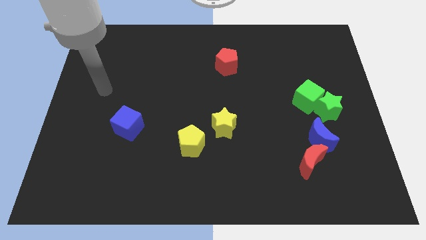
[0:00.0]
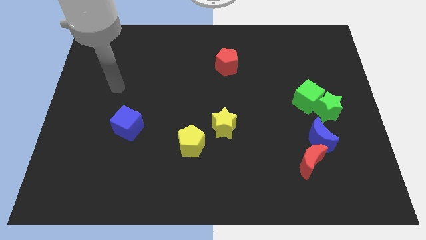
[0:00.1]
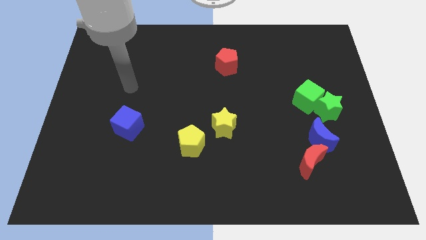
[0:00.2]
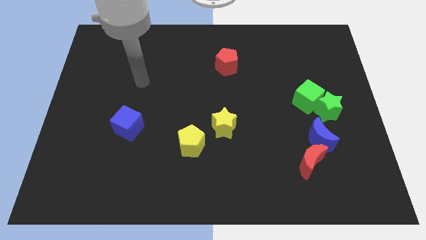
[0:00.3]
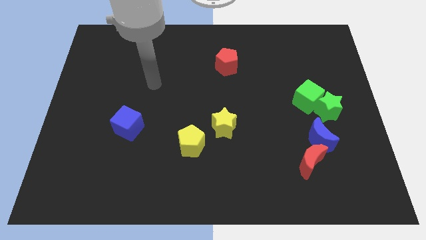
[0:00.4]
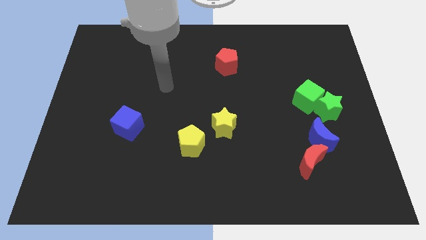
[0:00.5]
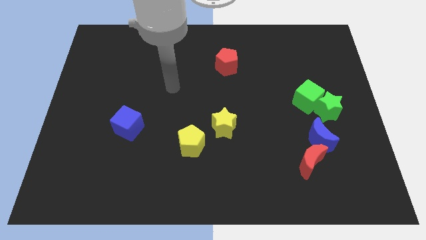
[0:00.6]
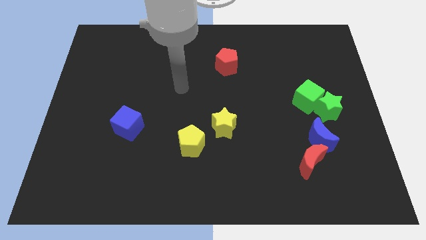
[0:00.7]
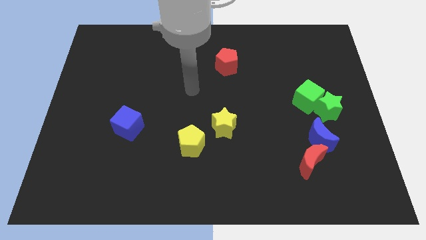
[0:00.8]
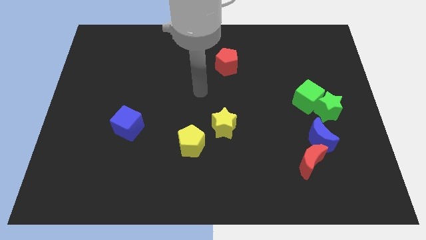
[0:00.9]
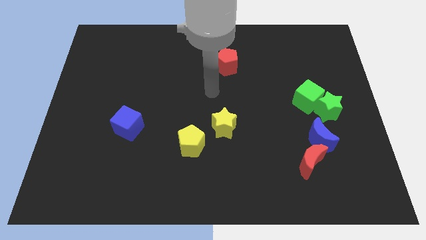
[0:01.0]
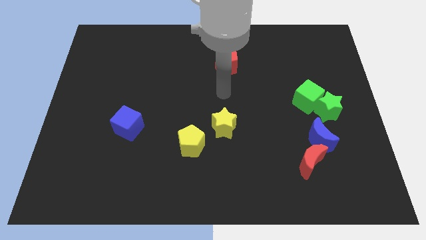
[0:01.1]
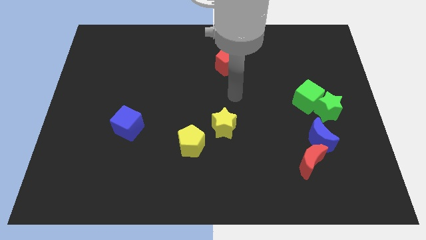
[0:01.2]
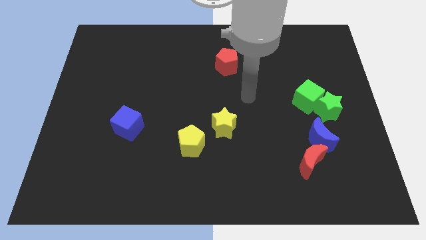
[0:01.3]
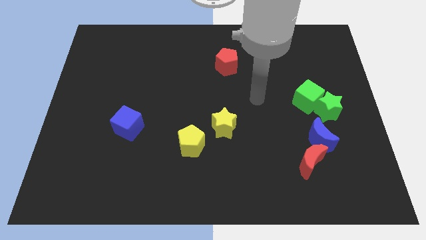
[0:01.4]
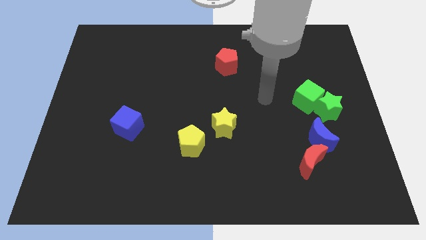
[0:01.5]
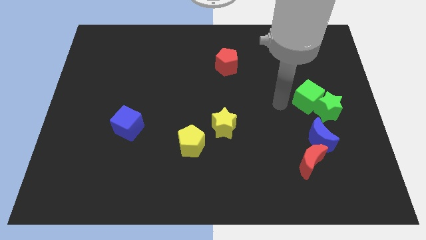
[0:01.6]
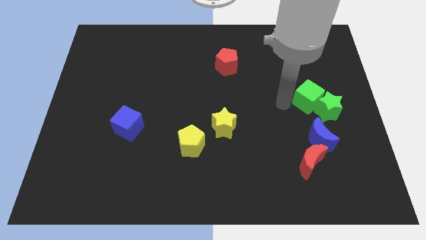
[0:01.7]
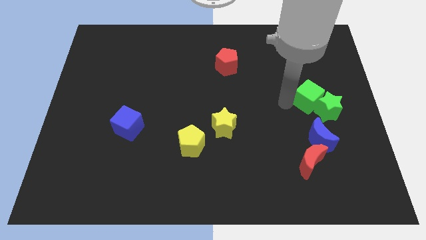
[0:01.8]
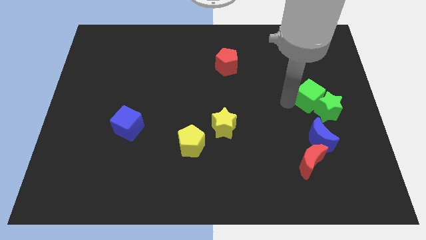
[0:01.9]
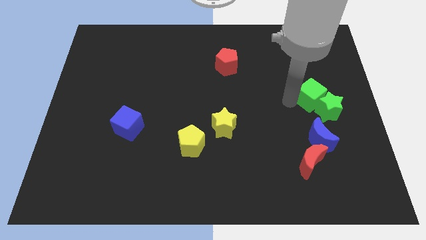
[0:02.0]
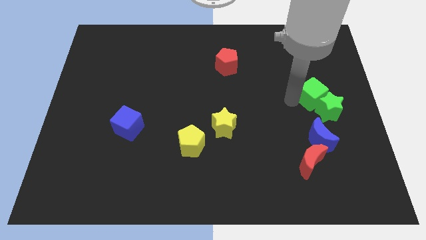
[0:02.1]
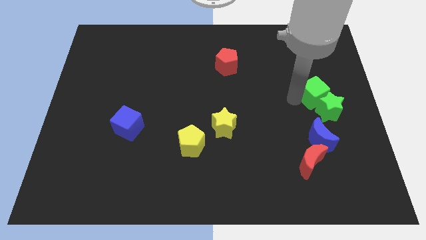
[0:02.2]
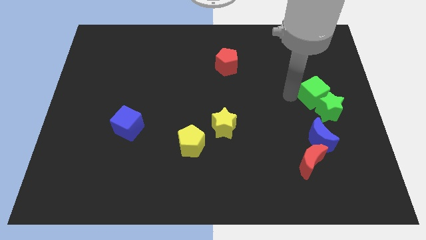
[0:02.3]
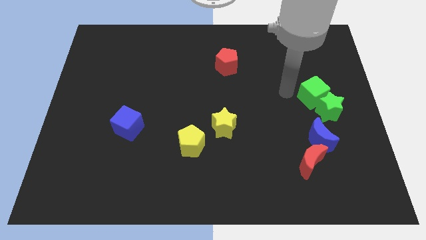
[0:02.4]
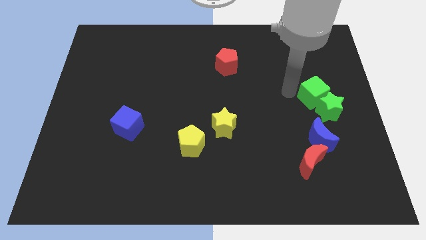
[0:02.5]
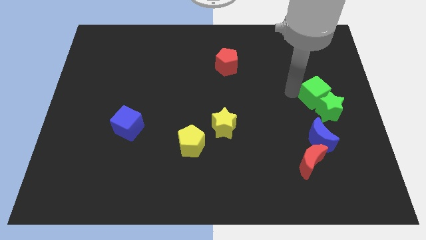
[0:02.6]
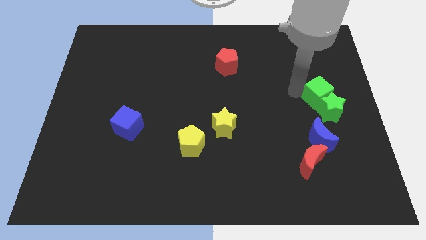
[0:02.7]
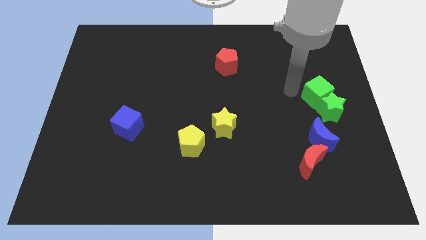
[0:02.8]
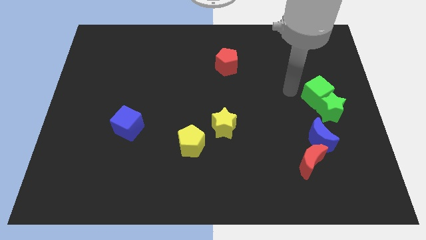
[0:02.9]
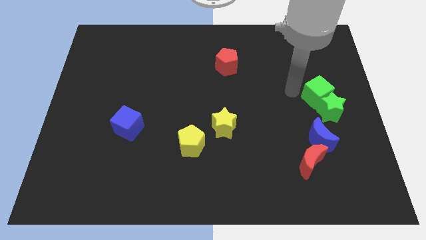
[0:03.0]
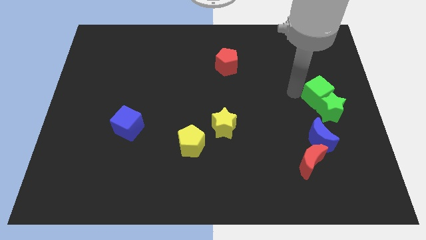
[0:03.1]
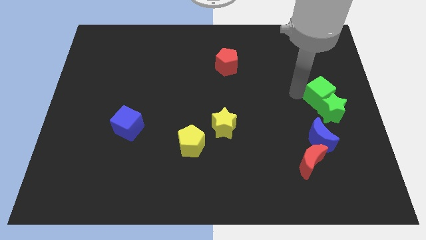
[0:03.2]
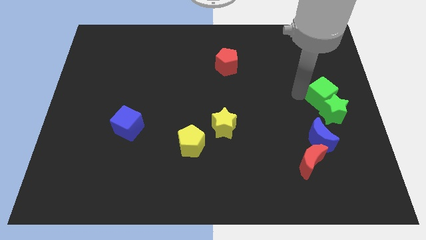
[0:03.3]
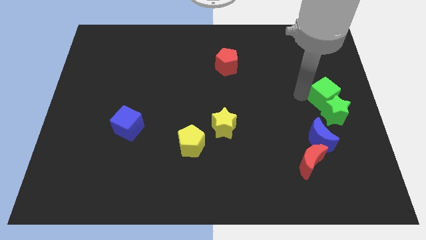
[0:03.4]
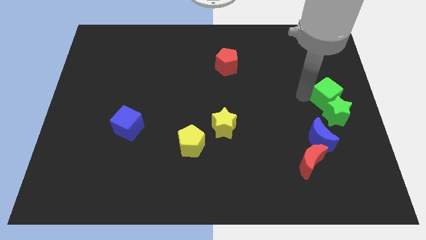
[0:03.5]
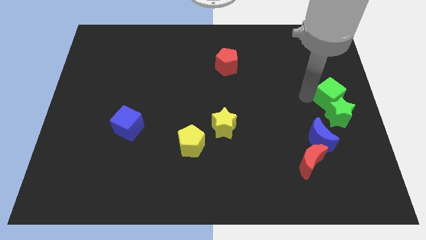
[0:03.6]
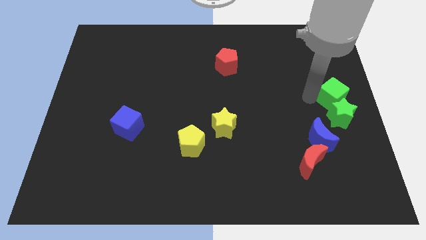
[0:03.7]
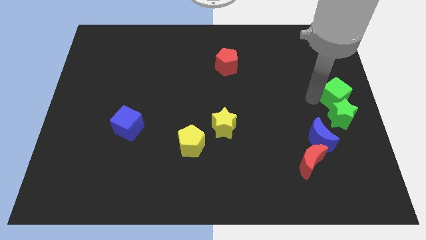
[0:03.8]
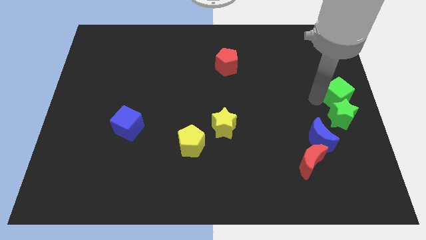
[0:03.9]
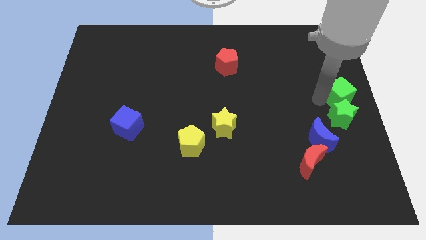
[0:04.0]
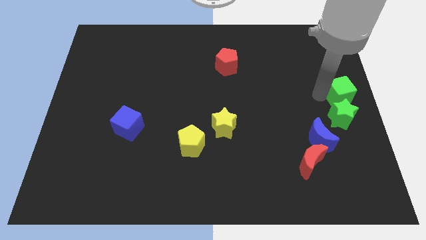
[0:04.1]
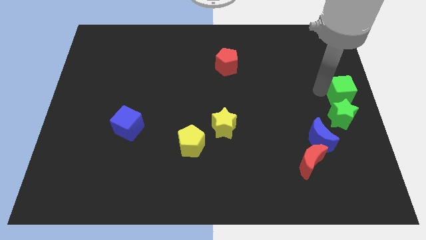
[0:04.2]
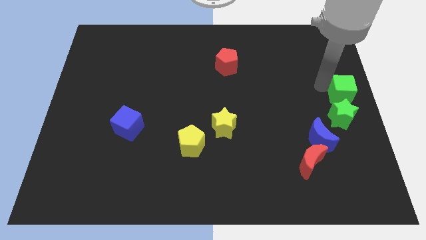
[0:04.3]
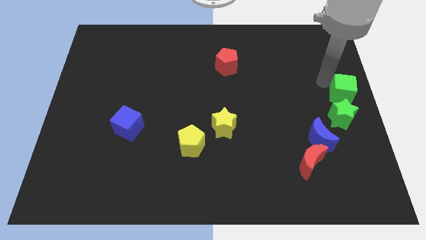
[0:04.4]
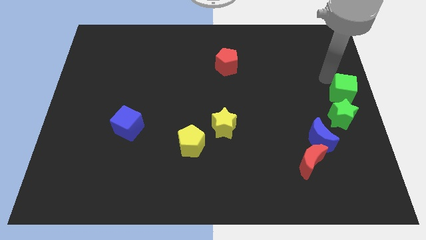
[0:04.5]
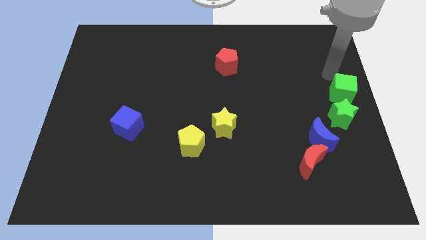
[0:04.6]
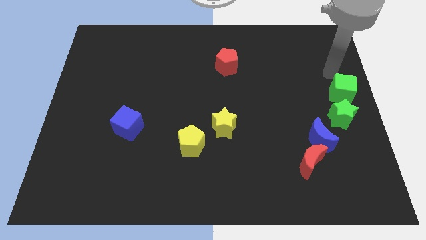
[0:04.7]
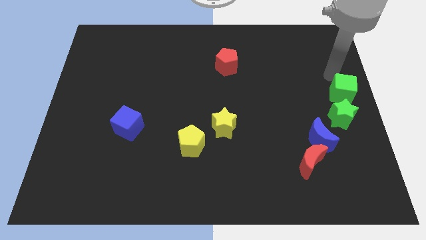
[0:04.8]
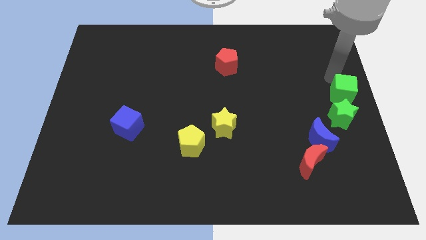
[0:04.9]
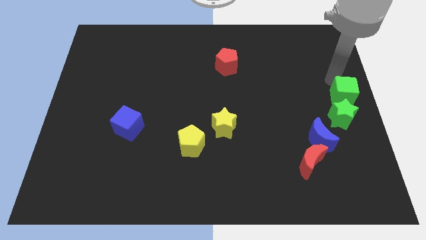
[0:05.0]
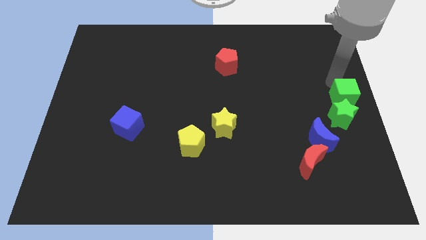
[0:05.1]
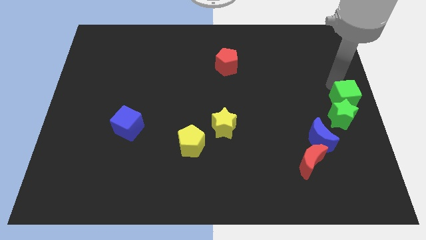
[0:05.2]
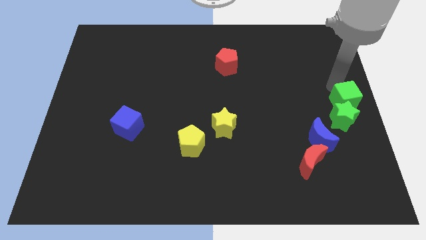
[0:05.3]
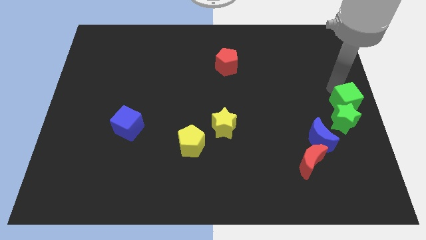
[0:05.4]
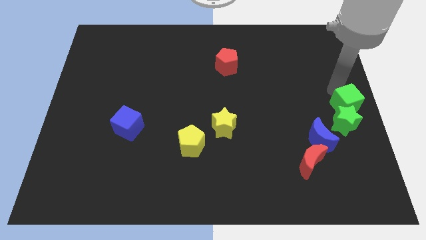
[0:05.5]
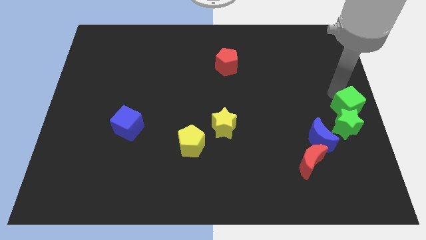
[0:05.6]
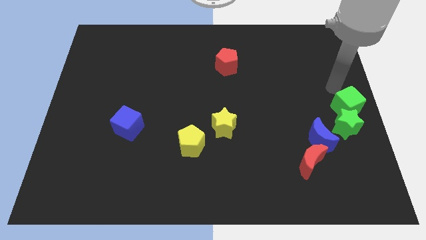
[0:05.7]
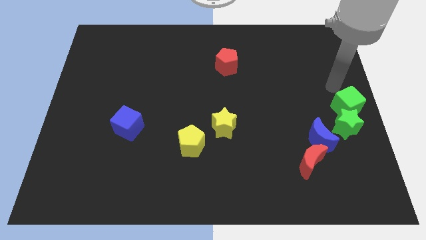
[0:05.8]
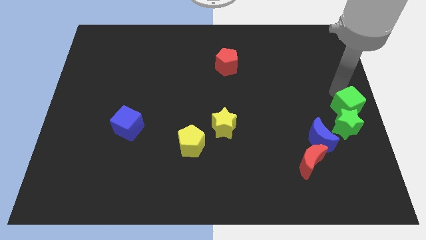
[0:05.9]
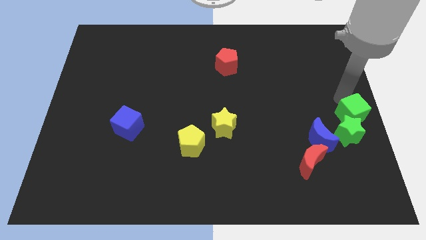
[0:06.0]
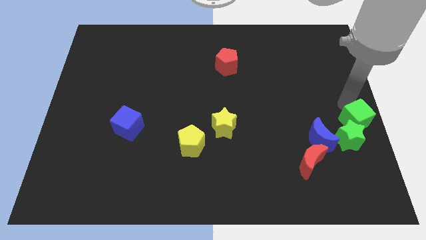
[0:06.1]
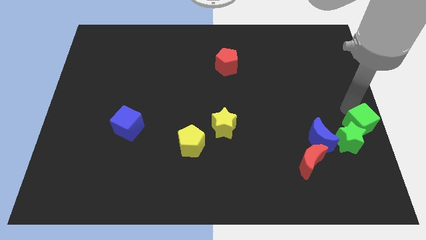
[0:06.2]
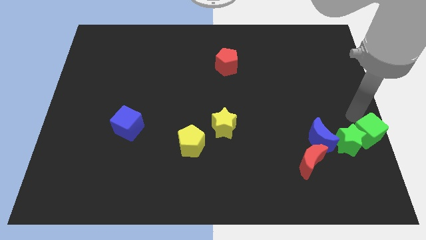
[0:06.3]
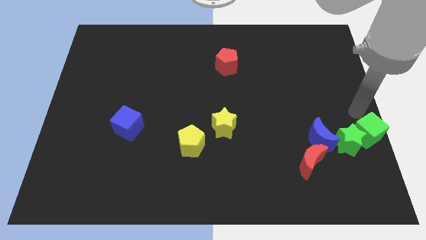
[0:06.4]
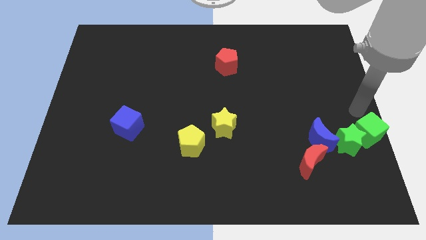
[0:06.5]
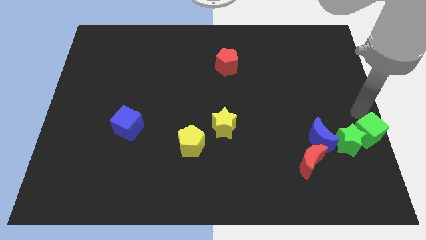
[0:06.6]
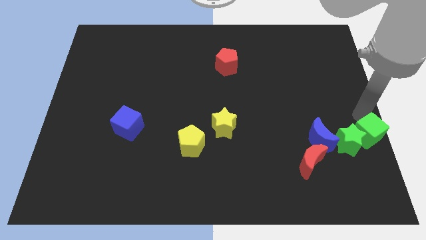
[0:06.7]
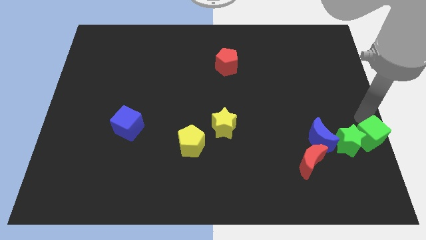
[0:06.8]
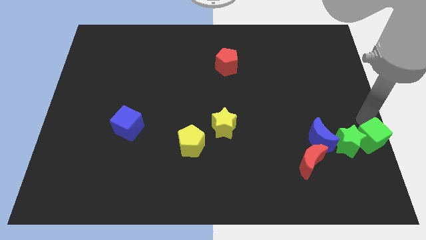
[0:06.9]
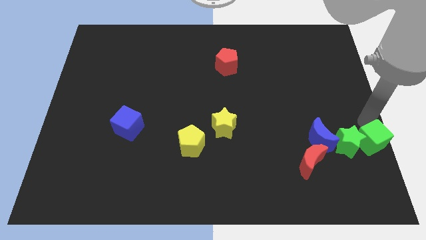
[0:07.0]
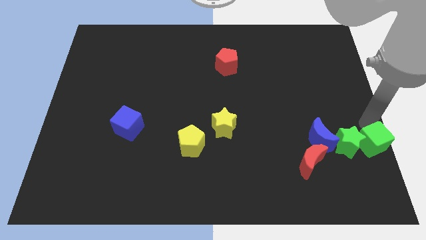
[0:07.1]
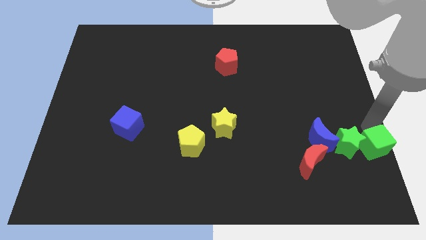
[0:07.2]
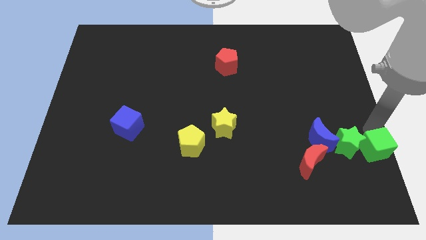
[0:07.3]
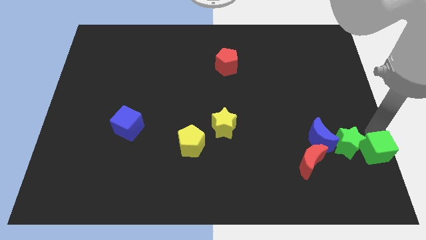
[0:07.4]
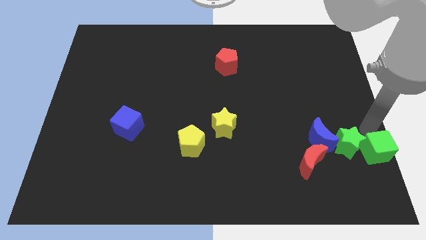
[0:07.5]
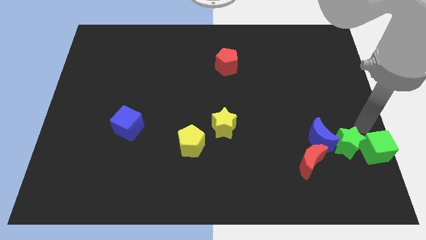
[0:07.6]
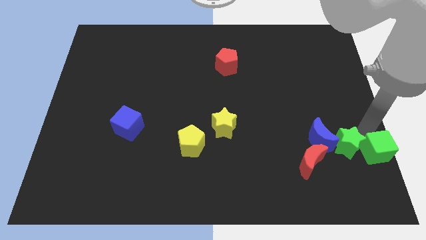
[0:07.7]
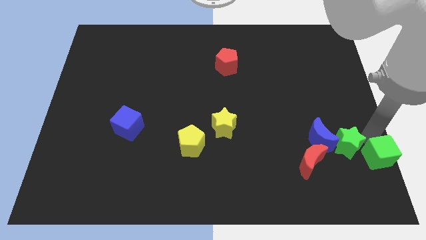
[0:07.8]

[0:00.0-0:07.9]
slide the green cube to the lower right corner
